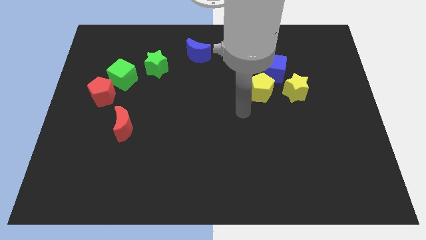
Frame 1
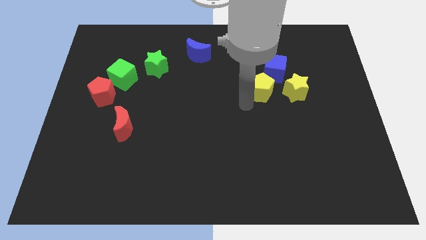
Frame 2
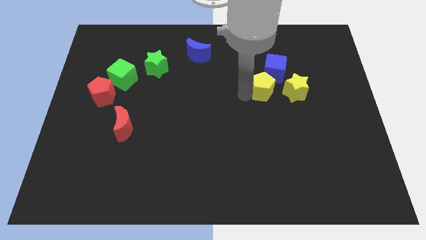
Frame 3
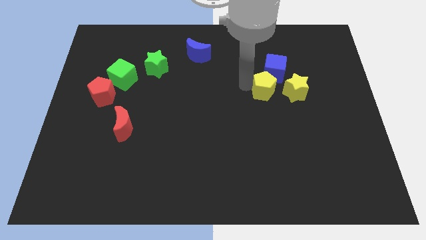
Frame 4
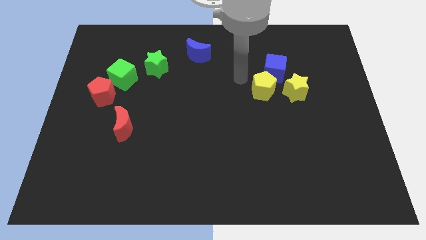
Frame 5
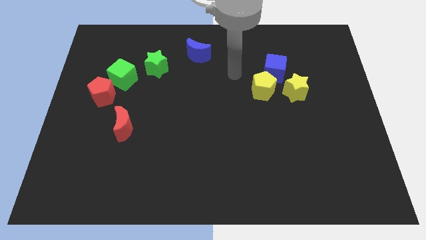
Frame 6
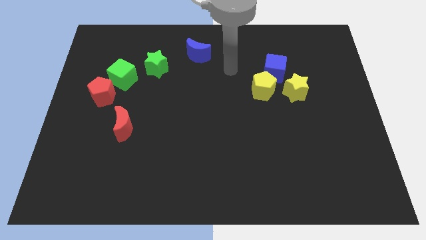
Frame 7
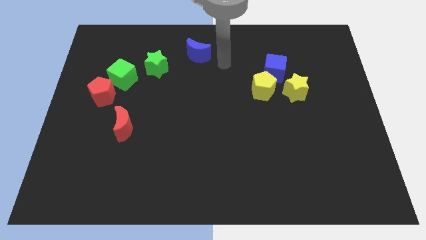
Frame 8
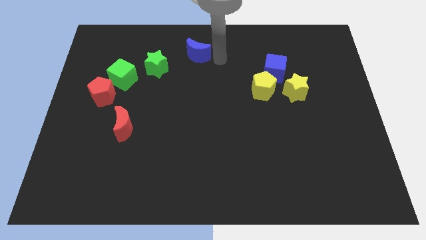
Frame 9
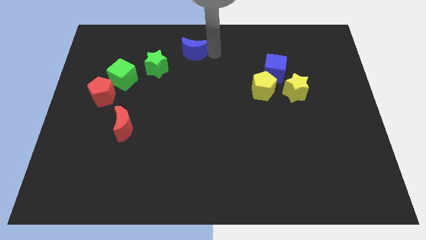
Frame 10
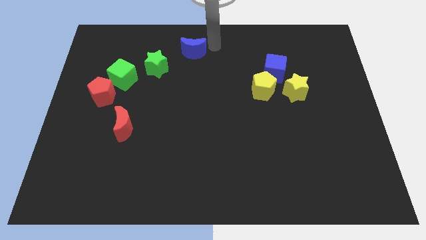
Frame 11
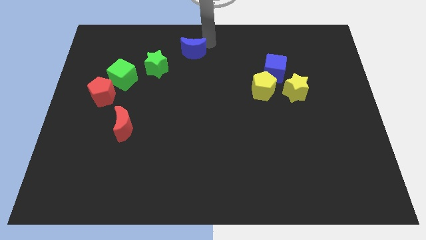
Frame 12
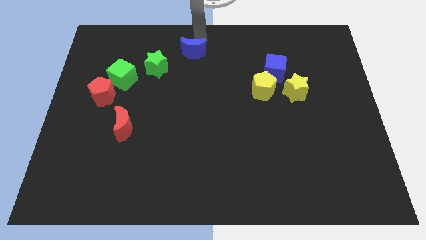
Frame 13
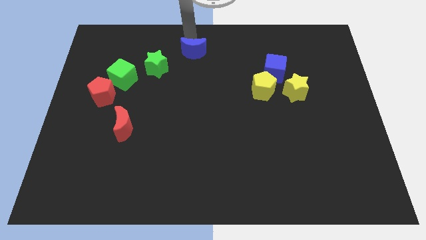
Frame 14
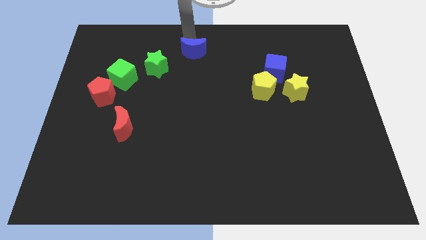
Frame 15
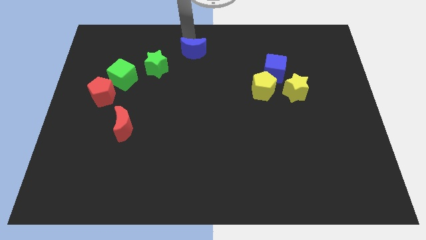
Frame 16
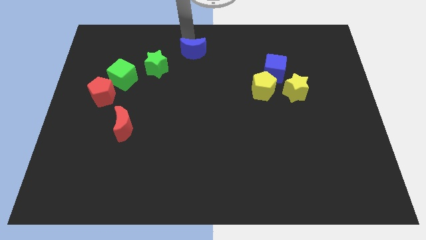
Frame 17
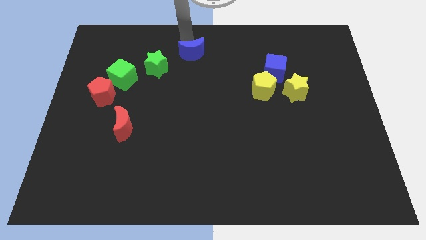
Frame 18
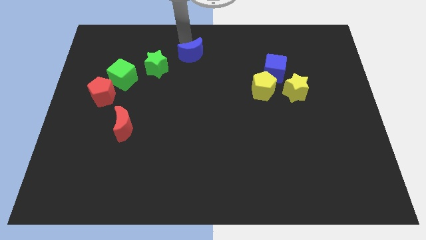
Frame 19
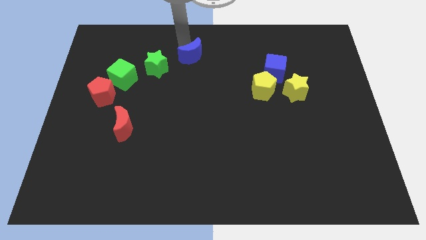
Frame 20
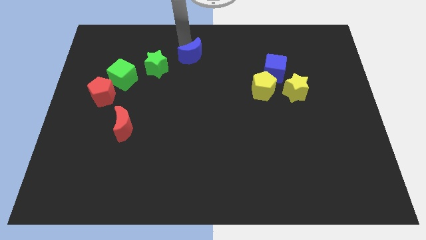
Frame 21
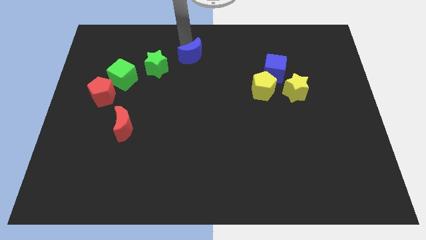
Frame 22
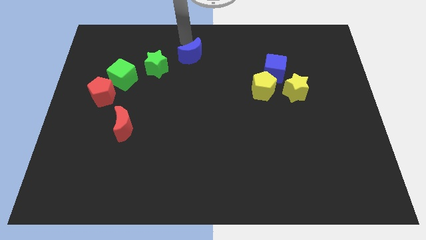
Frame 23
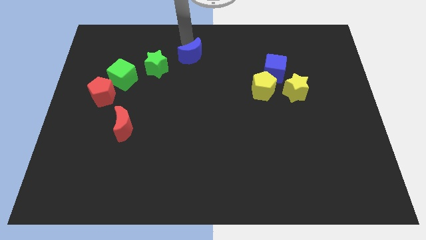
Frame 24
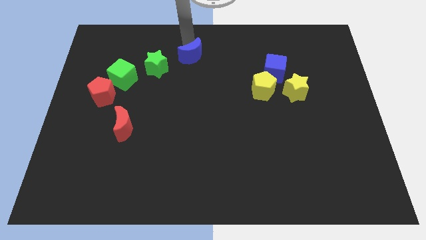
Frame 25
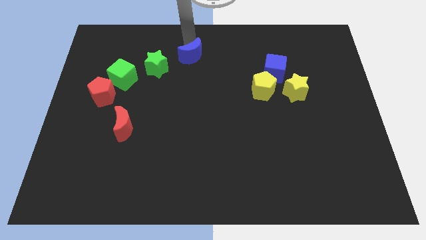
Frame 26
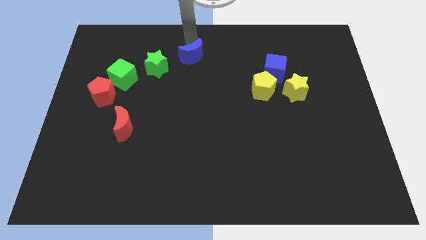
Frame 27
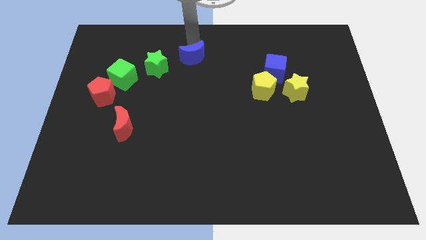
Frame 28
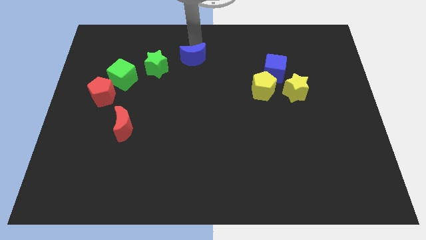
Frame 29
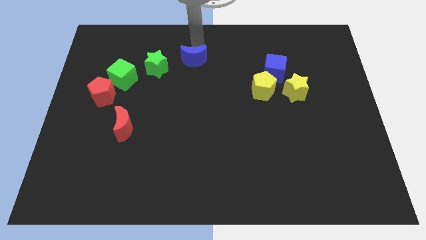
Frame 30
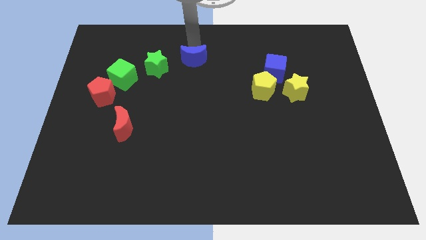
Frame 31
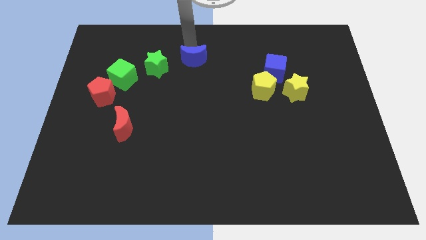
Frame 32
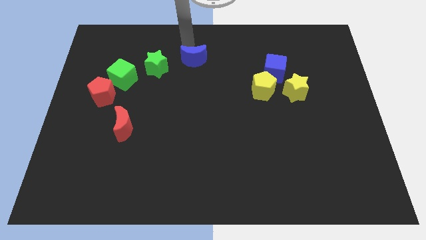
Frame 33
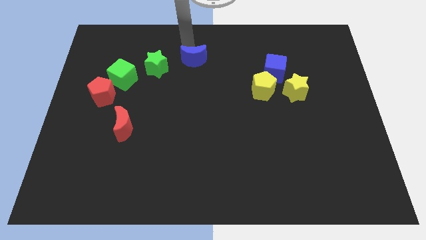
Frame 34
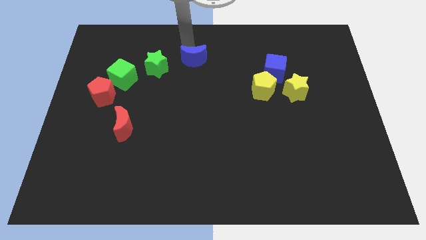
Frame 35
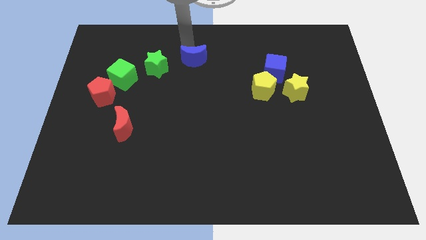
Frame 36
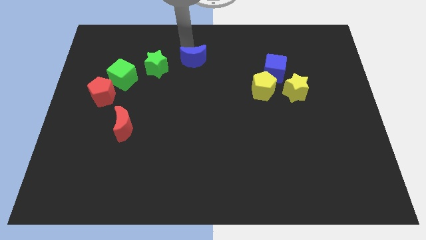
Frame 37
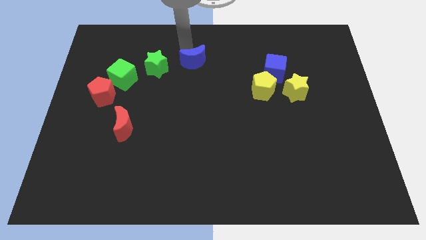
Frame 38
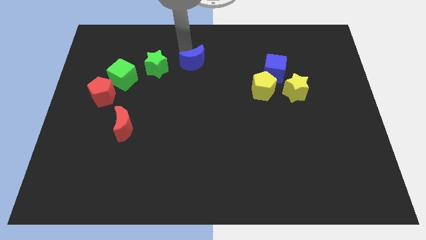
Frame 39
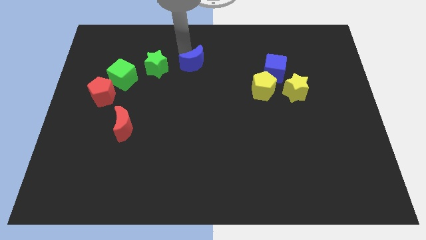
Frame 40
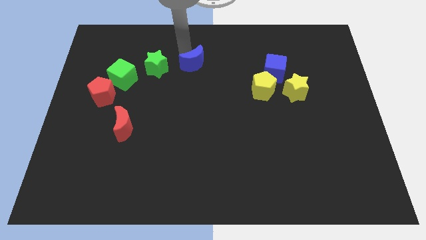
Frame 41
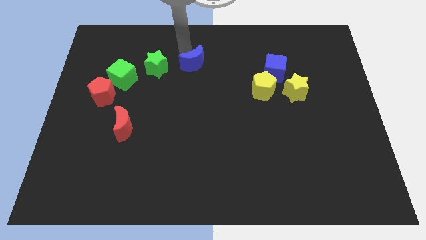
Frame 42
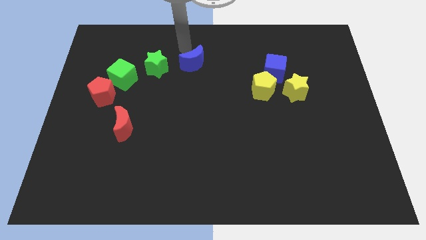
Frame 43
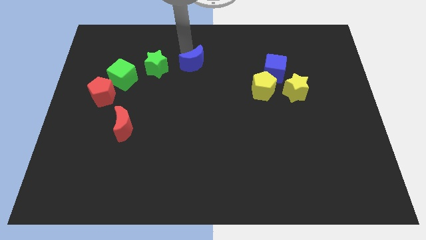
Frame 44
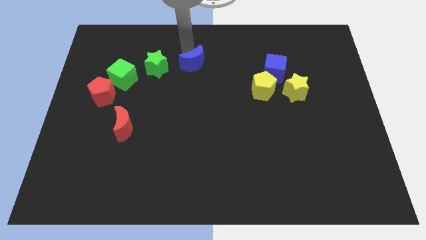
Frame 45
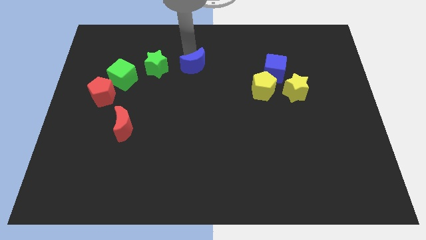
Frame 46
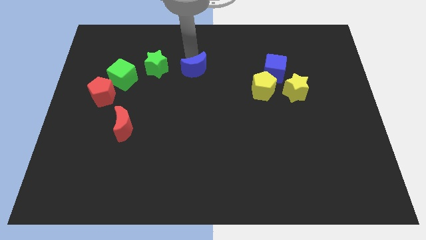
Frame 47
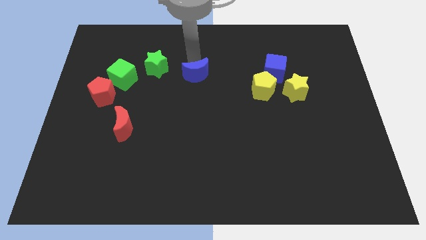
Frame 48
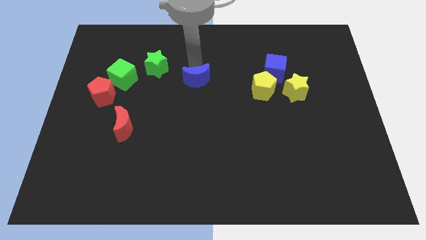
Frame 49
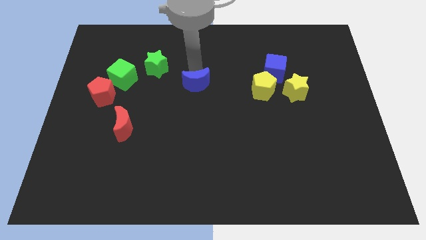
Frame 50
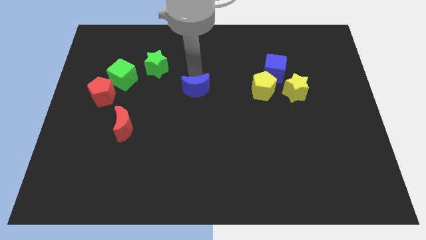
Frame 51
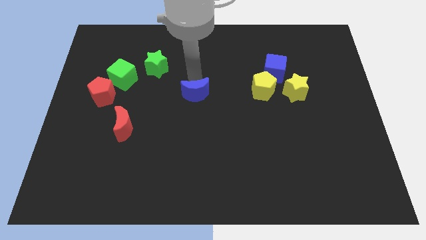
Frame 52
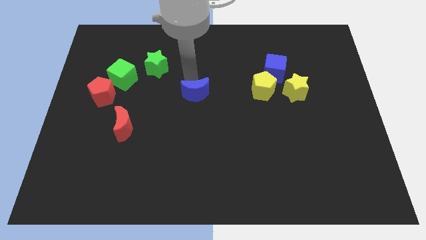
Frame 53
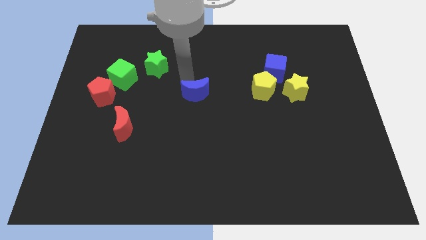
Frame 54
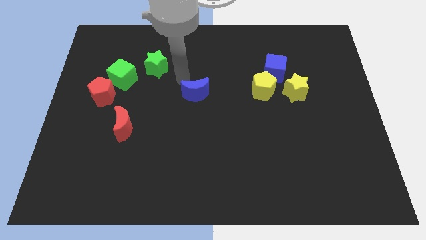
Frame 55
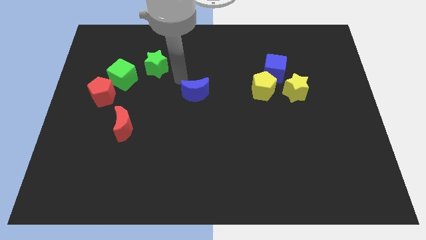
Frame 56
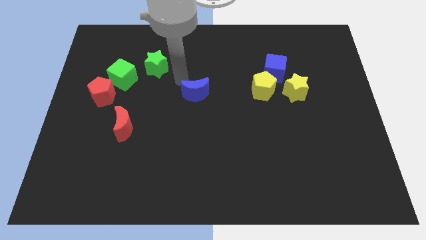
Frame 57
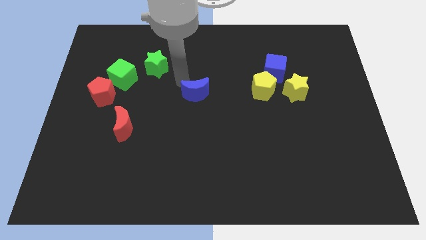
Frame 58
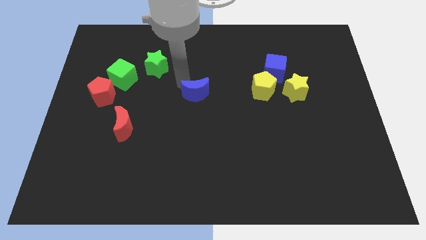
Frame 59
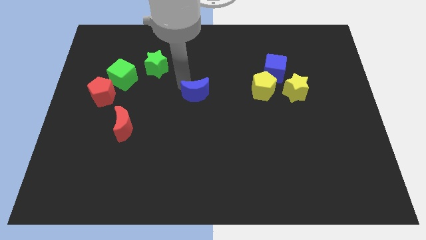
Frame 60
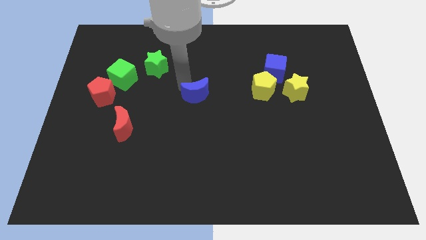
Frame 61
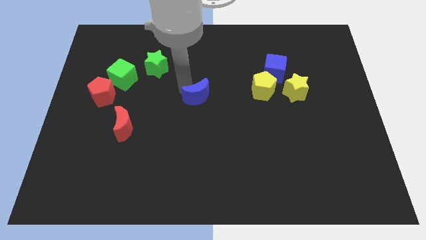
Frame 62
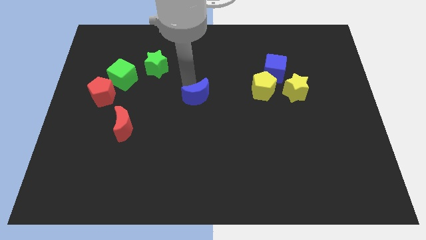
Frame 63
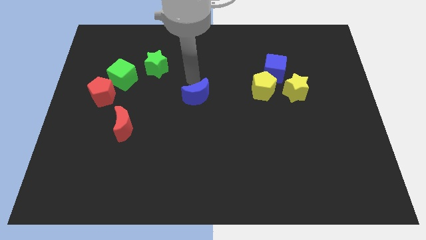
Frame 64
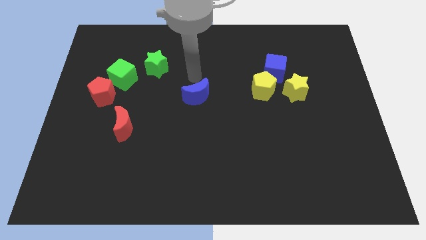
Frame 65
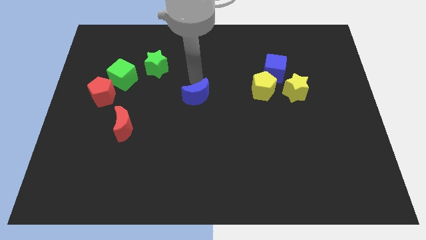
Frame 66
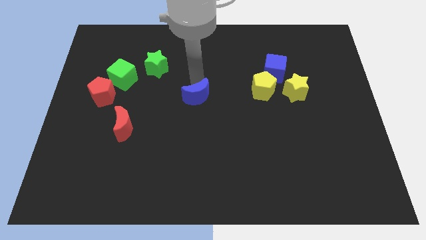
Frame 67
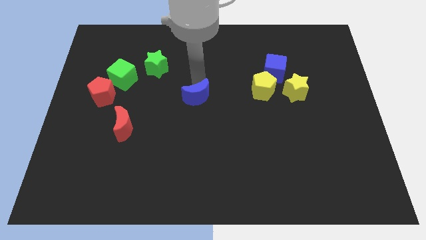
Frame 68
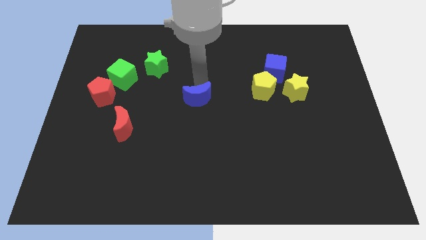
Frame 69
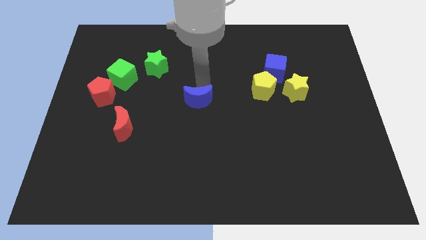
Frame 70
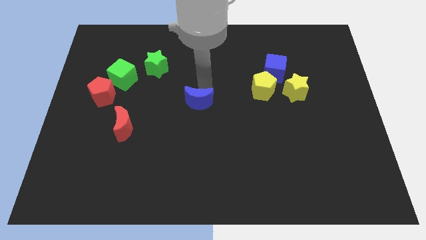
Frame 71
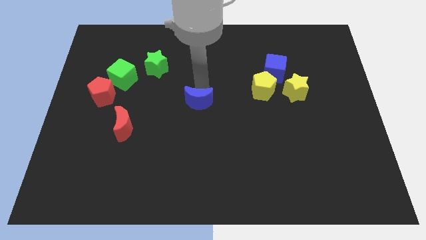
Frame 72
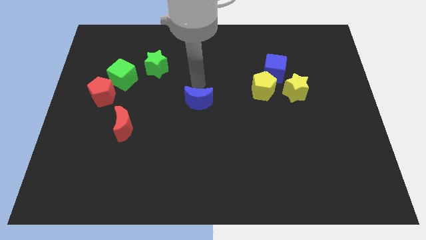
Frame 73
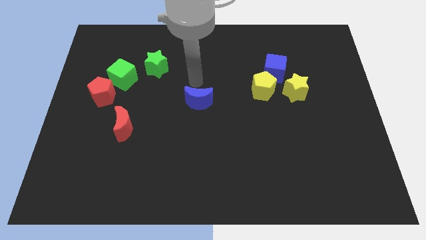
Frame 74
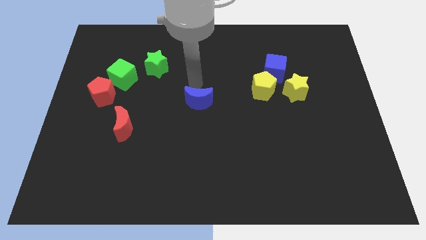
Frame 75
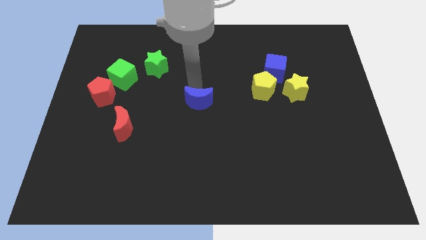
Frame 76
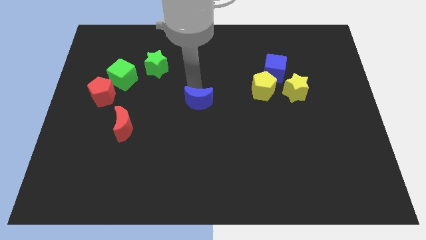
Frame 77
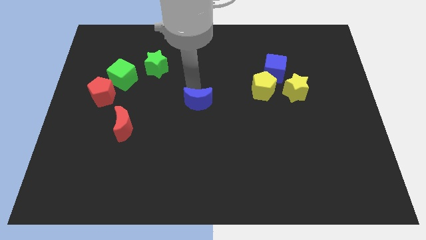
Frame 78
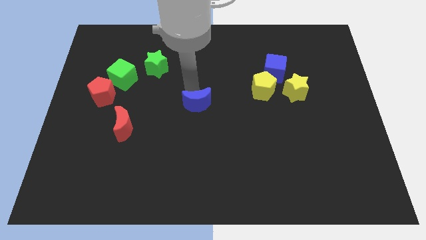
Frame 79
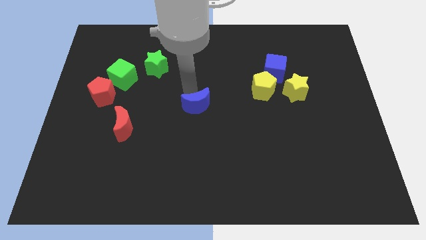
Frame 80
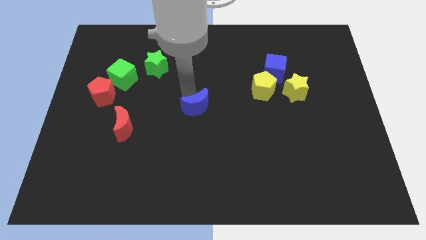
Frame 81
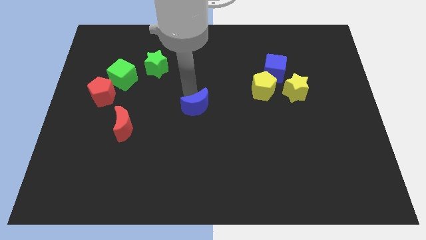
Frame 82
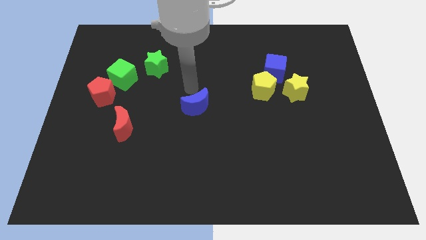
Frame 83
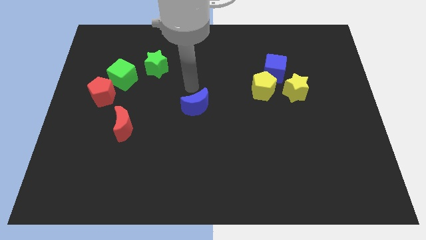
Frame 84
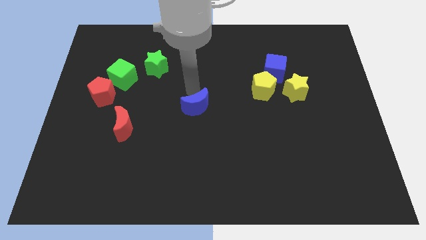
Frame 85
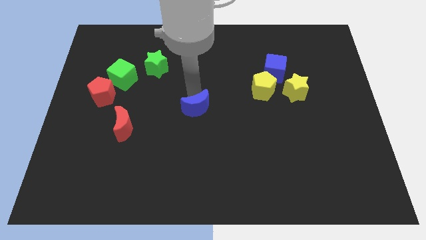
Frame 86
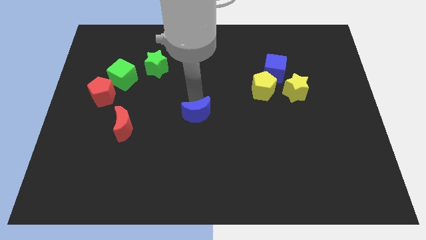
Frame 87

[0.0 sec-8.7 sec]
push the blue moon downwards
